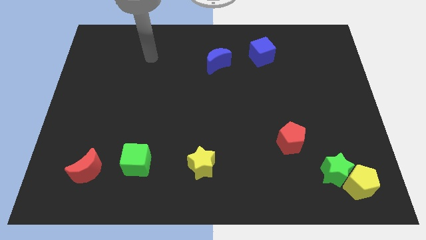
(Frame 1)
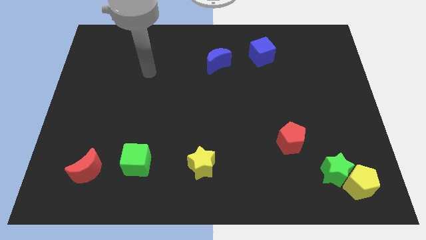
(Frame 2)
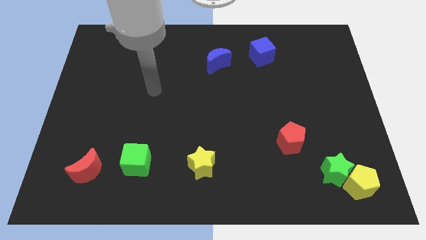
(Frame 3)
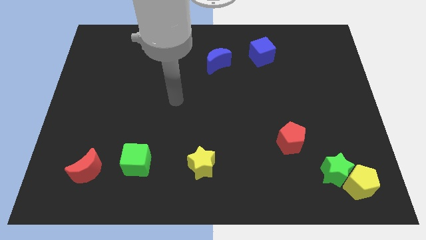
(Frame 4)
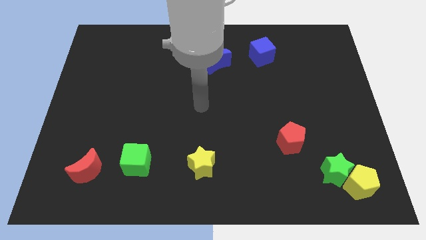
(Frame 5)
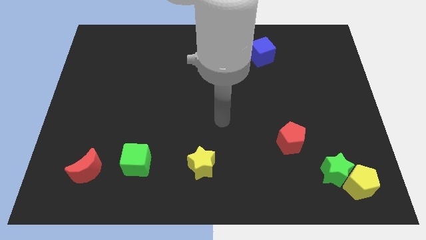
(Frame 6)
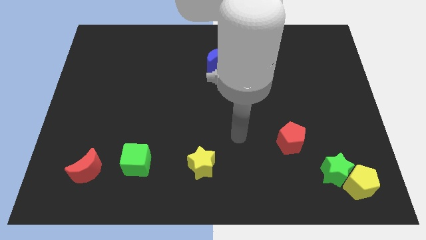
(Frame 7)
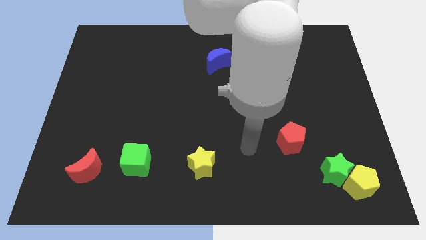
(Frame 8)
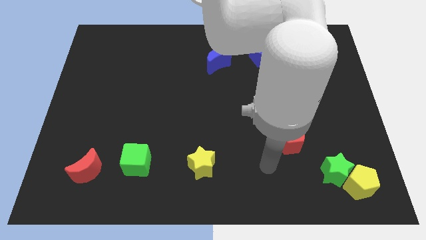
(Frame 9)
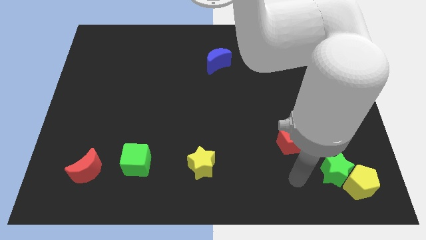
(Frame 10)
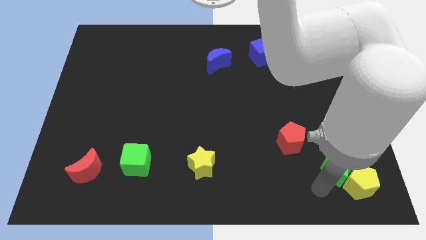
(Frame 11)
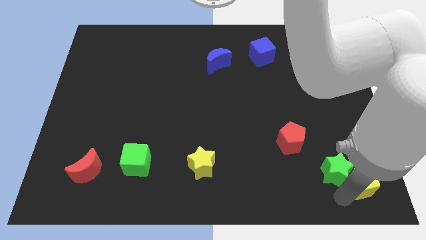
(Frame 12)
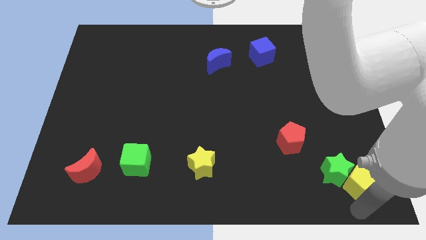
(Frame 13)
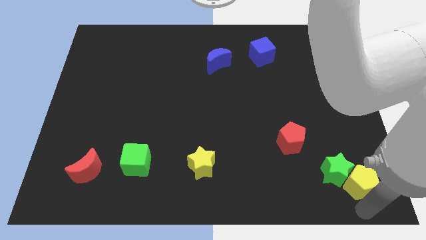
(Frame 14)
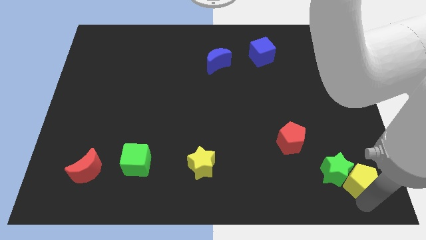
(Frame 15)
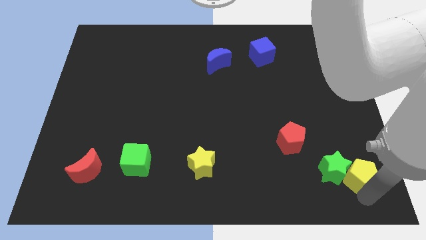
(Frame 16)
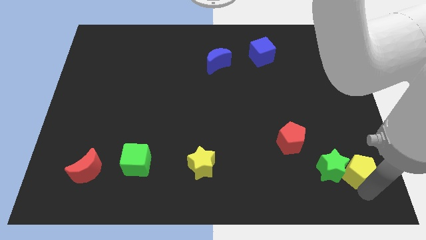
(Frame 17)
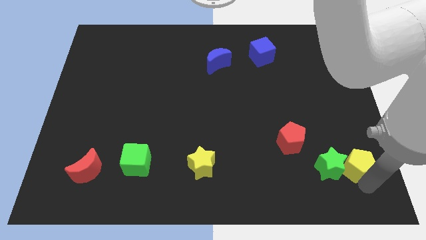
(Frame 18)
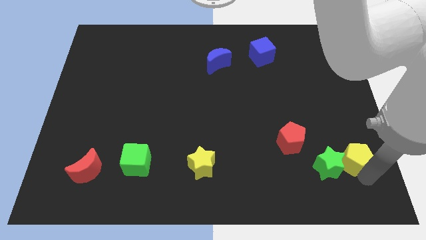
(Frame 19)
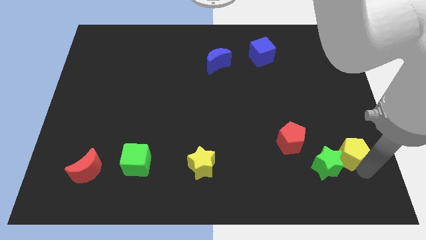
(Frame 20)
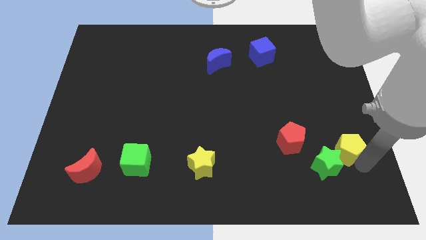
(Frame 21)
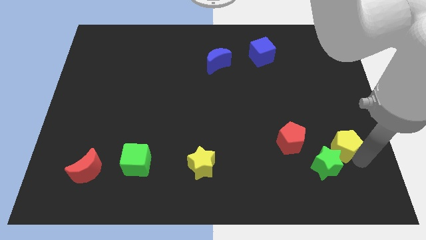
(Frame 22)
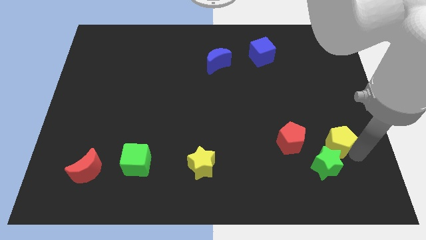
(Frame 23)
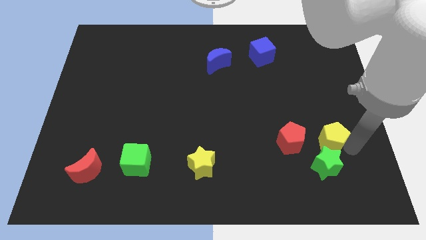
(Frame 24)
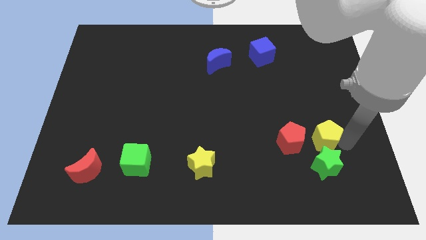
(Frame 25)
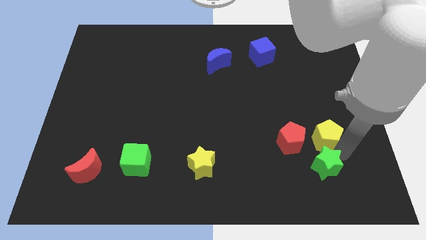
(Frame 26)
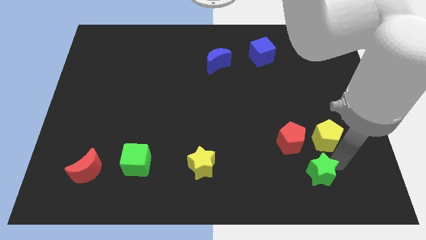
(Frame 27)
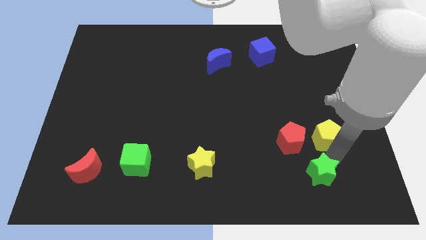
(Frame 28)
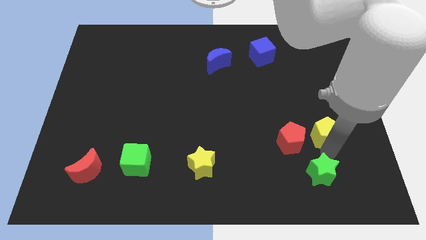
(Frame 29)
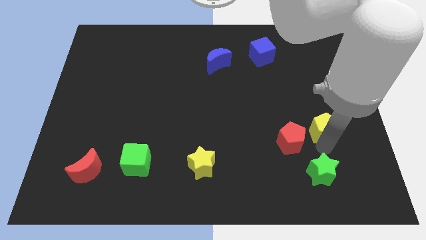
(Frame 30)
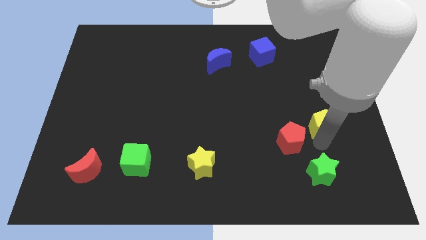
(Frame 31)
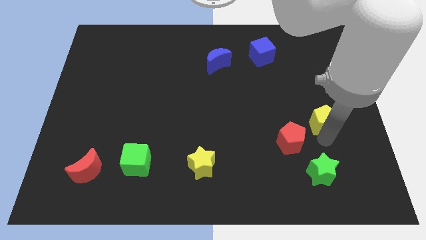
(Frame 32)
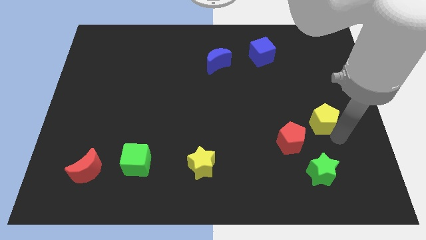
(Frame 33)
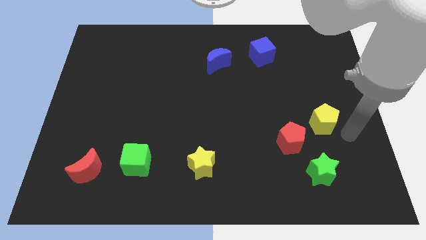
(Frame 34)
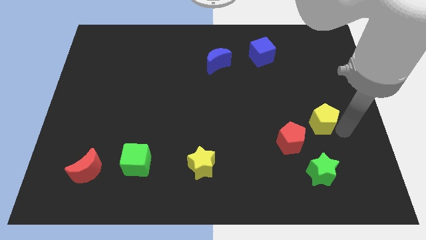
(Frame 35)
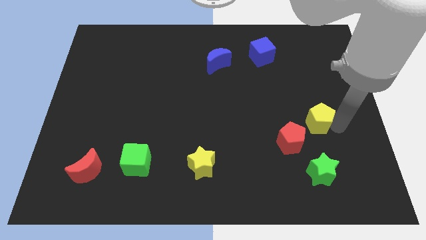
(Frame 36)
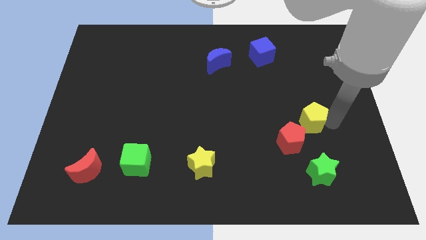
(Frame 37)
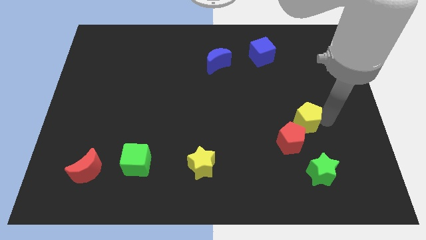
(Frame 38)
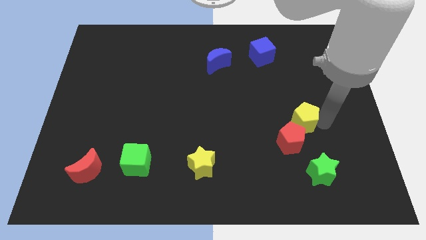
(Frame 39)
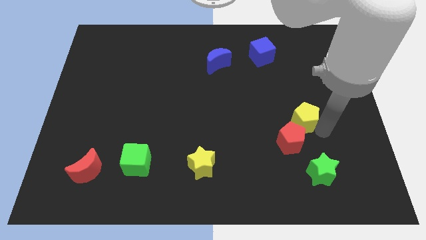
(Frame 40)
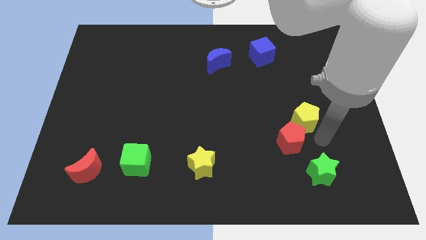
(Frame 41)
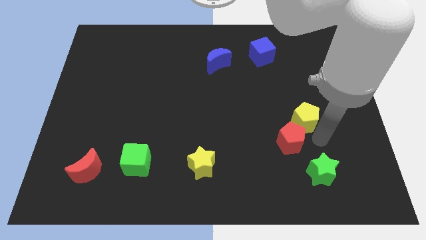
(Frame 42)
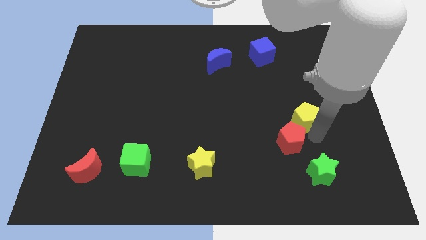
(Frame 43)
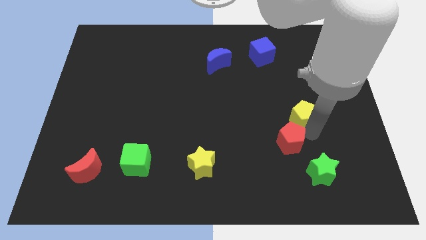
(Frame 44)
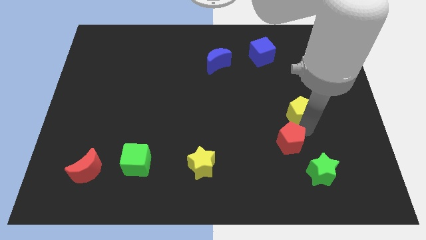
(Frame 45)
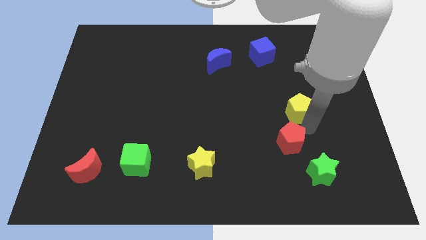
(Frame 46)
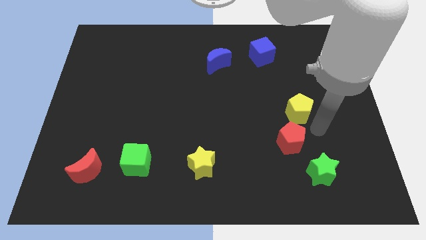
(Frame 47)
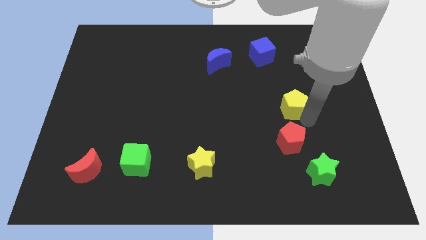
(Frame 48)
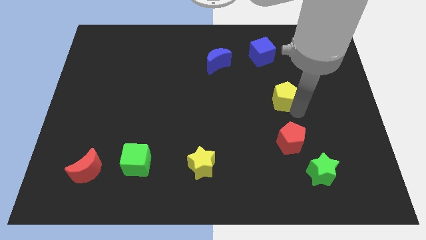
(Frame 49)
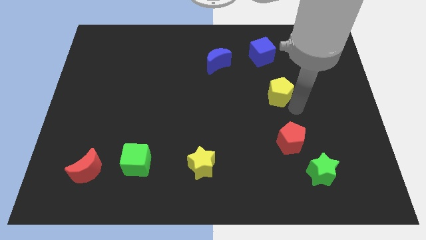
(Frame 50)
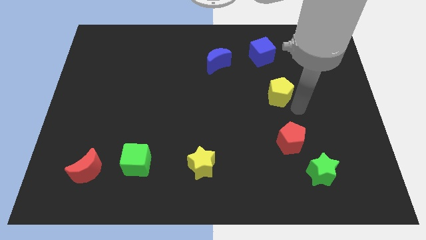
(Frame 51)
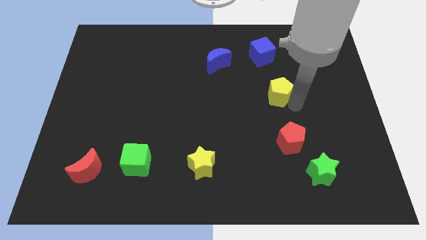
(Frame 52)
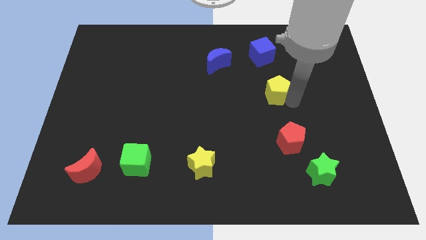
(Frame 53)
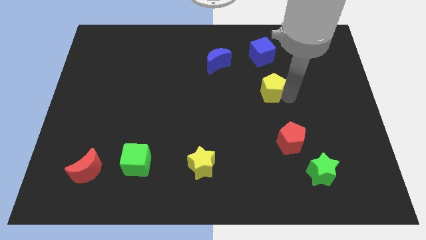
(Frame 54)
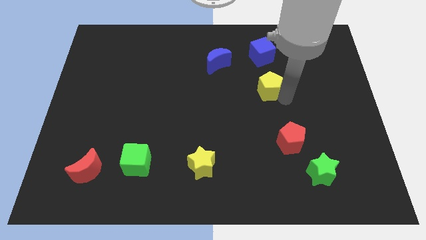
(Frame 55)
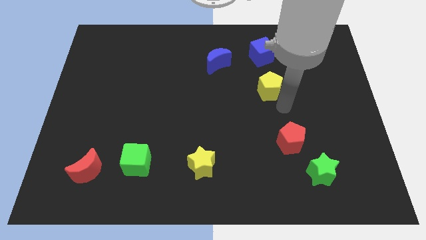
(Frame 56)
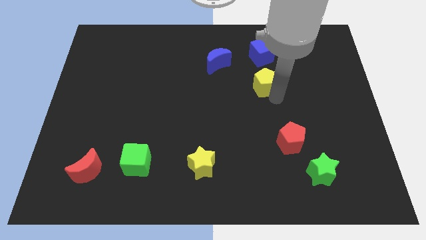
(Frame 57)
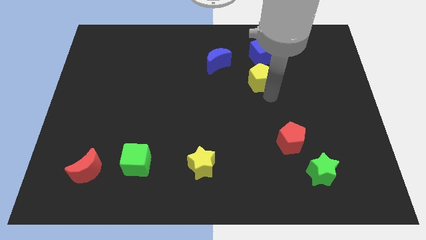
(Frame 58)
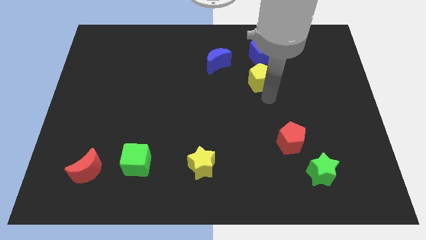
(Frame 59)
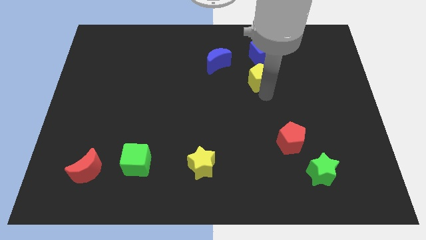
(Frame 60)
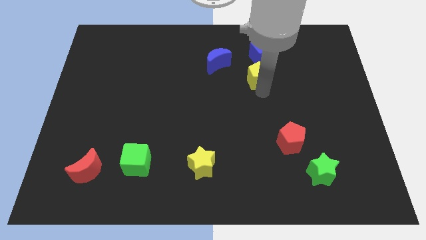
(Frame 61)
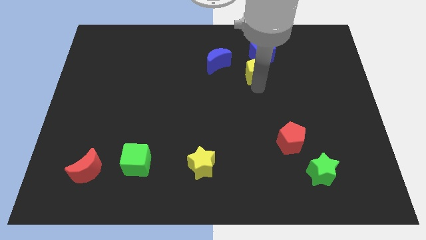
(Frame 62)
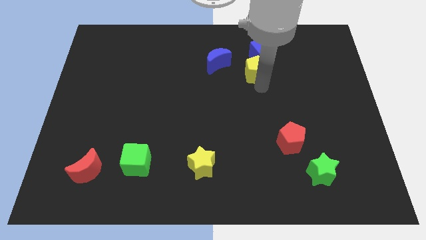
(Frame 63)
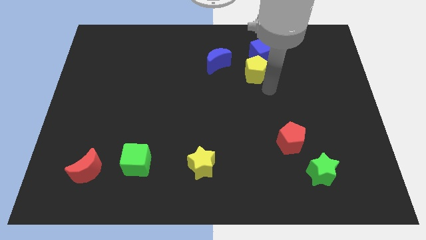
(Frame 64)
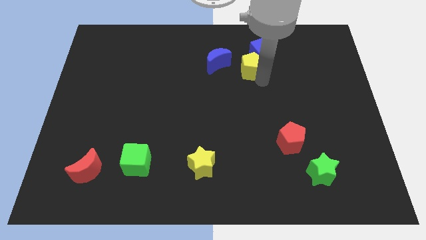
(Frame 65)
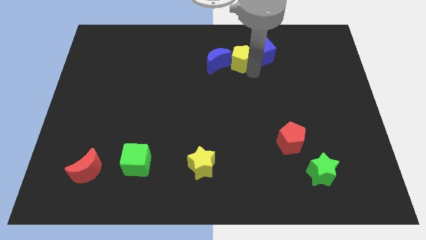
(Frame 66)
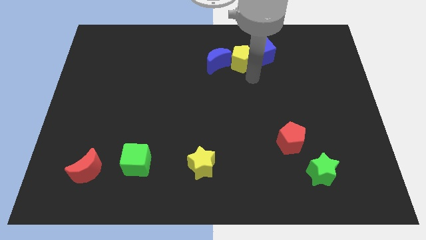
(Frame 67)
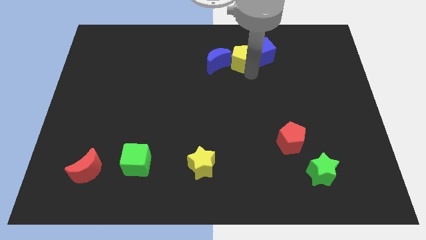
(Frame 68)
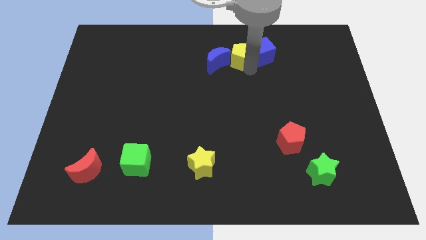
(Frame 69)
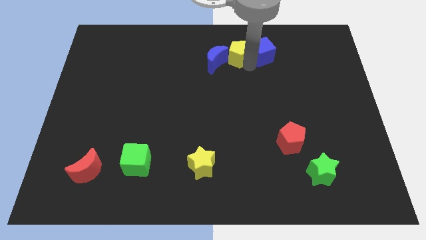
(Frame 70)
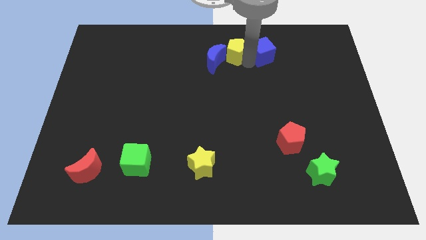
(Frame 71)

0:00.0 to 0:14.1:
push the yellow pentagon to the towards your base

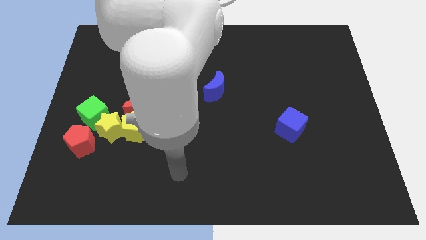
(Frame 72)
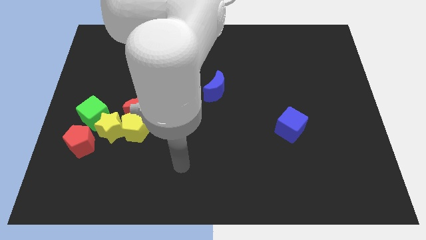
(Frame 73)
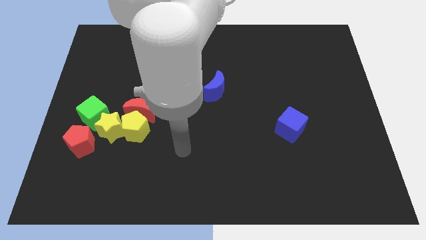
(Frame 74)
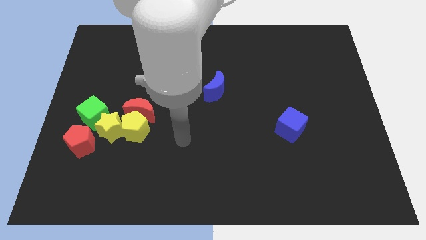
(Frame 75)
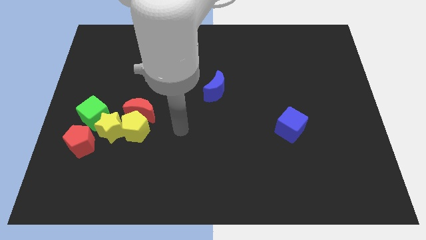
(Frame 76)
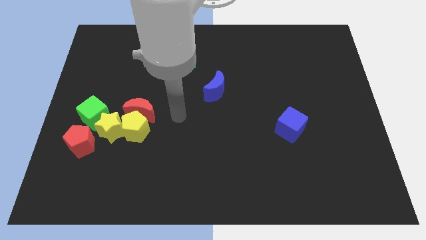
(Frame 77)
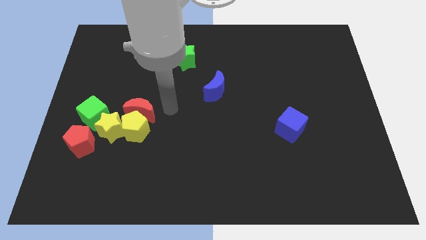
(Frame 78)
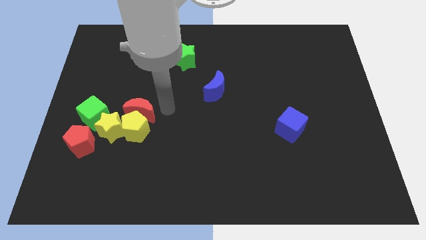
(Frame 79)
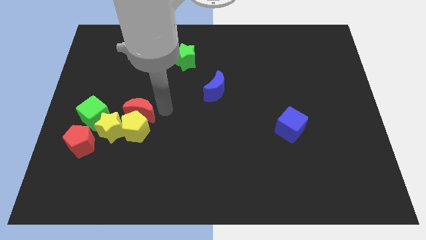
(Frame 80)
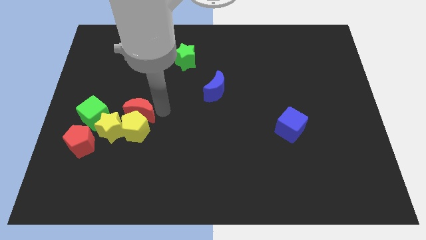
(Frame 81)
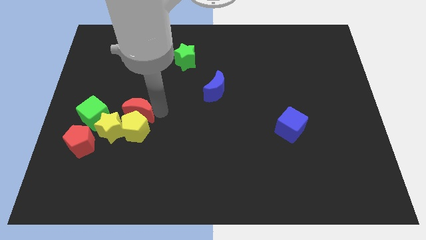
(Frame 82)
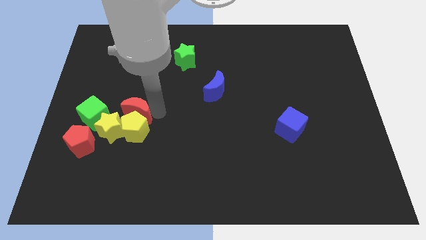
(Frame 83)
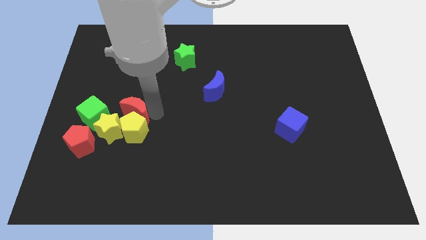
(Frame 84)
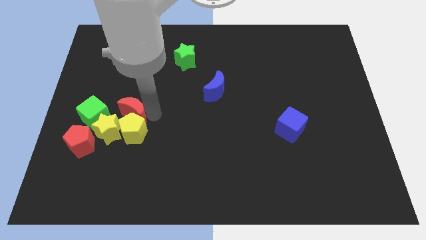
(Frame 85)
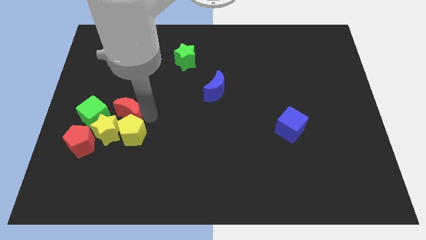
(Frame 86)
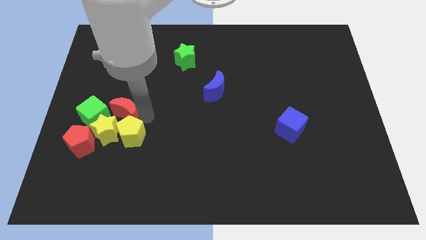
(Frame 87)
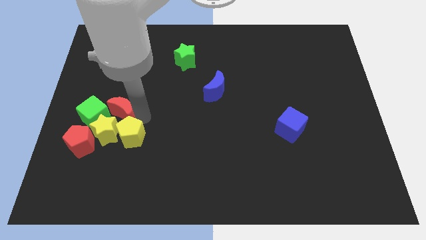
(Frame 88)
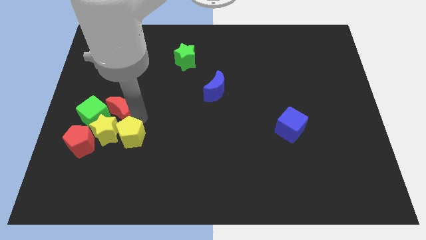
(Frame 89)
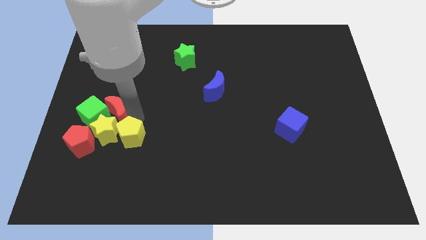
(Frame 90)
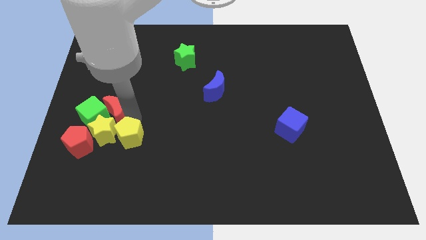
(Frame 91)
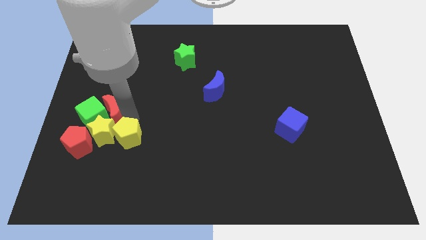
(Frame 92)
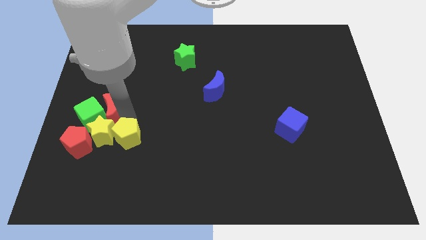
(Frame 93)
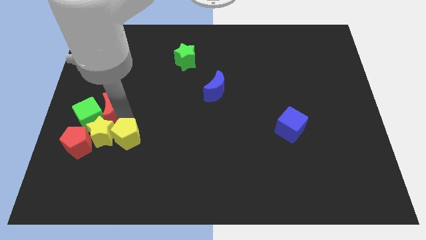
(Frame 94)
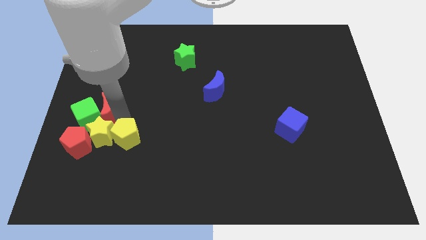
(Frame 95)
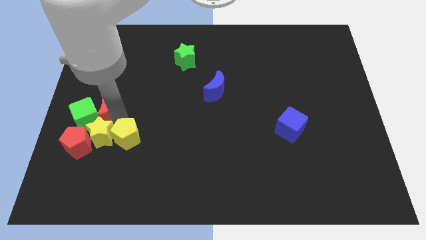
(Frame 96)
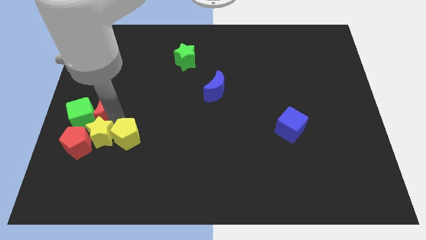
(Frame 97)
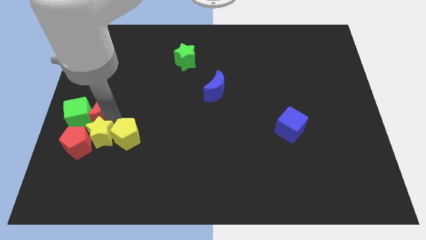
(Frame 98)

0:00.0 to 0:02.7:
put the red moon to the center left
